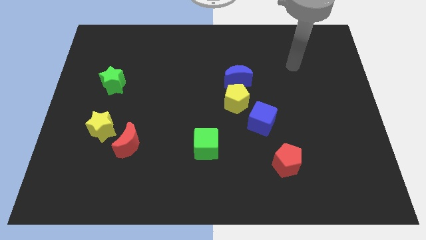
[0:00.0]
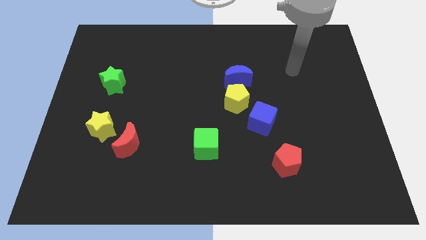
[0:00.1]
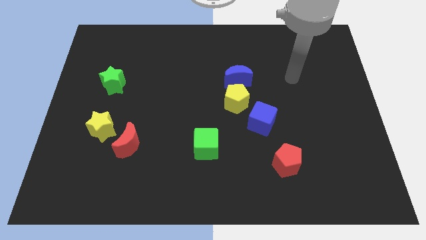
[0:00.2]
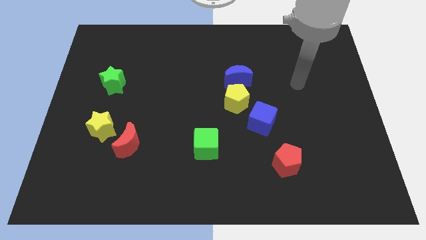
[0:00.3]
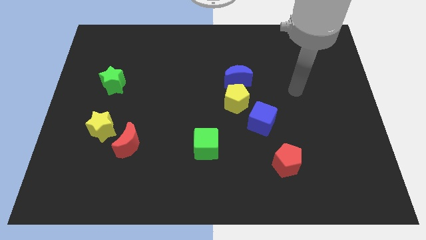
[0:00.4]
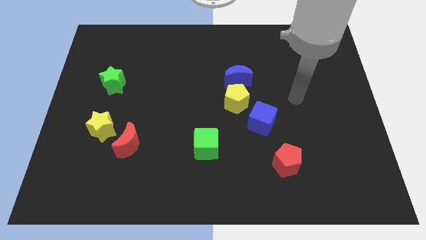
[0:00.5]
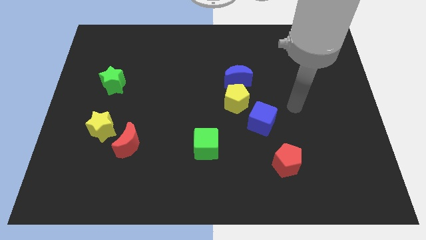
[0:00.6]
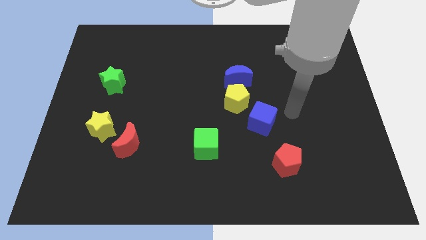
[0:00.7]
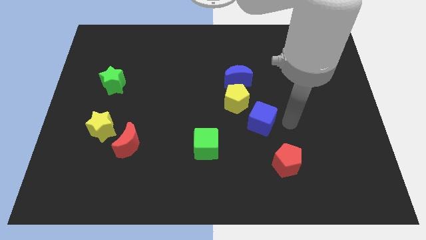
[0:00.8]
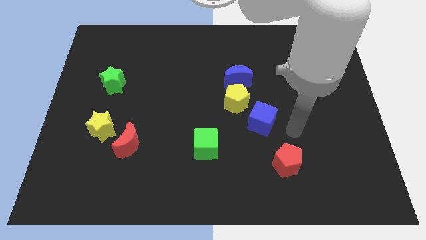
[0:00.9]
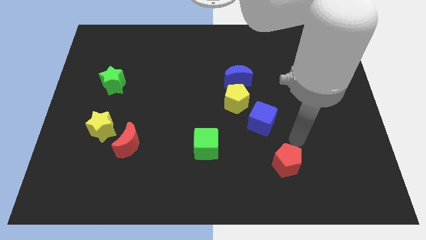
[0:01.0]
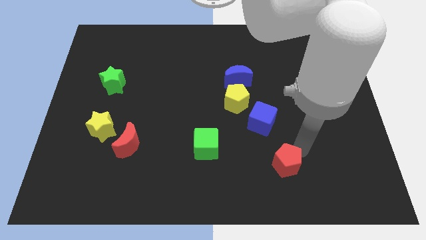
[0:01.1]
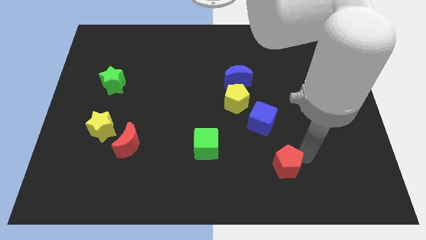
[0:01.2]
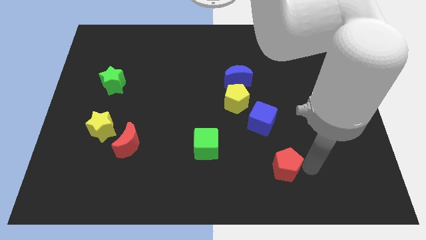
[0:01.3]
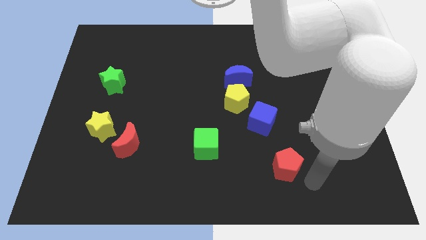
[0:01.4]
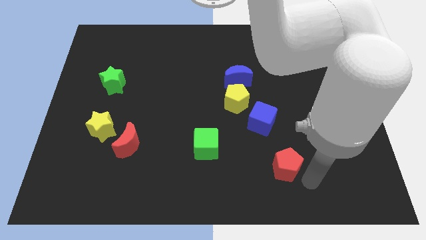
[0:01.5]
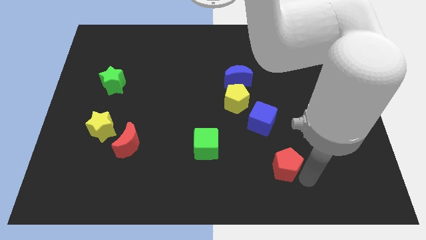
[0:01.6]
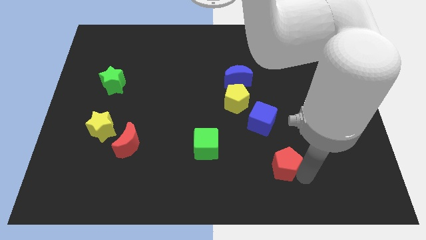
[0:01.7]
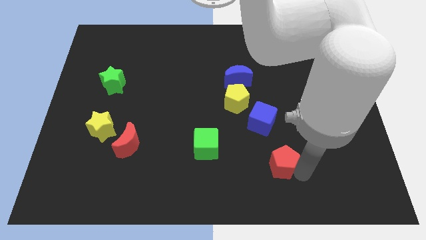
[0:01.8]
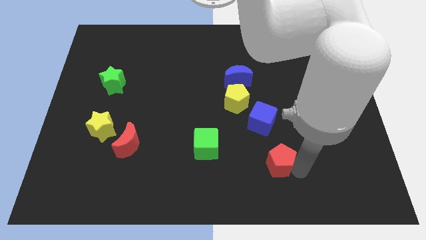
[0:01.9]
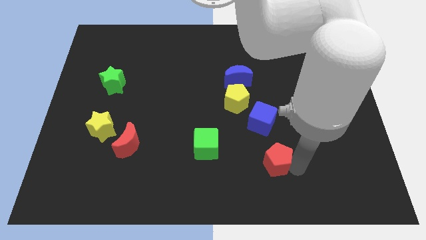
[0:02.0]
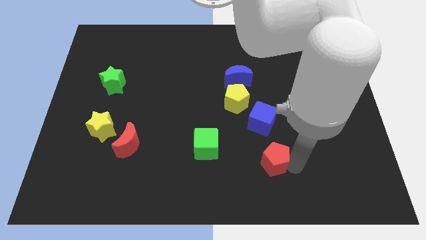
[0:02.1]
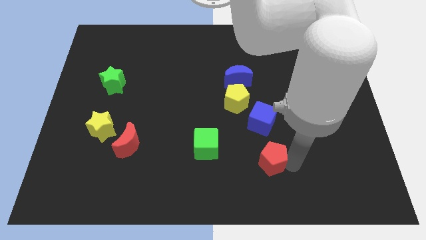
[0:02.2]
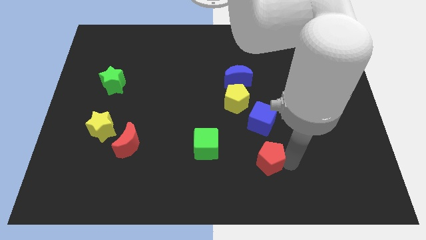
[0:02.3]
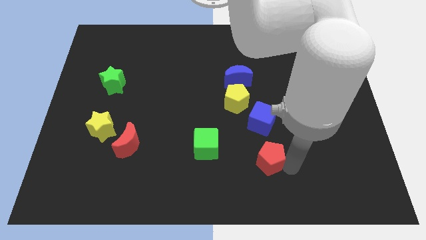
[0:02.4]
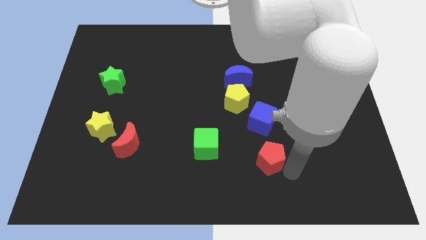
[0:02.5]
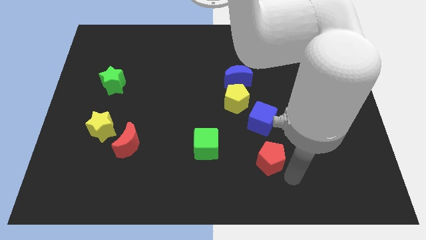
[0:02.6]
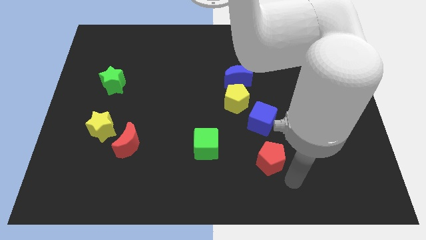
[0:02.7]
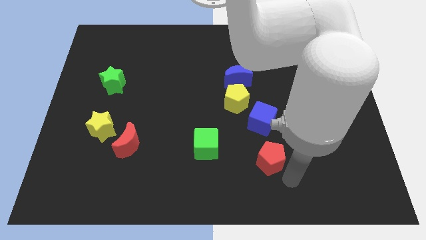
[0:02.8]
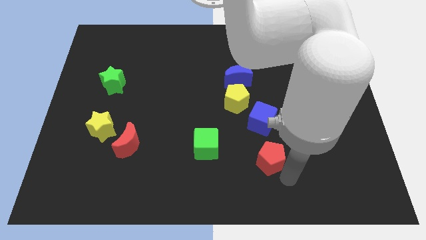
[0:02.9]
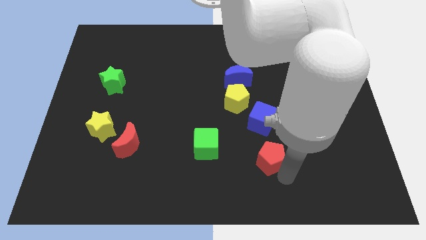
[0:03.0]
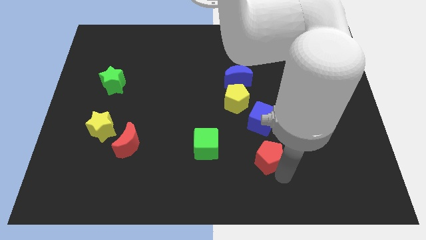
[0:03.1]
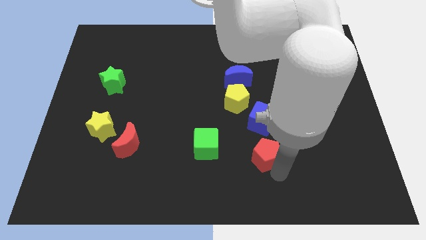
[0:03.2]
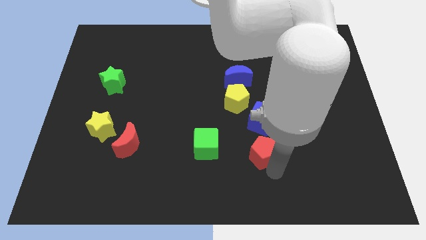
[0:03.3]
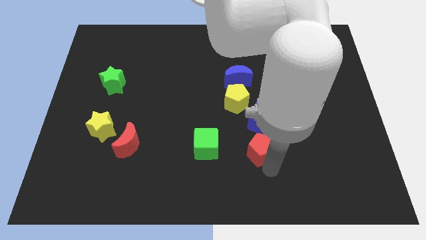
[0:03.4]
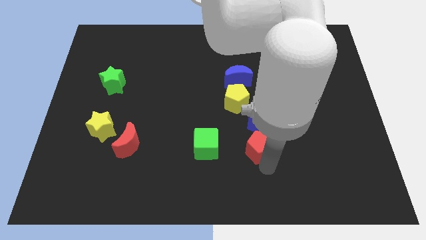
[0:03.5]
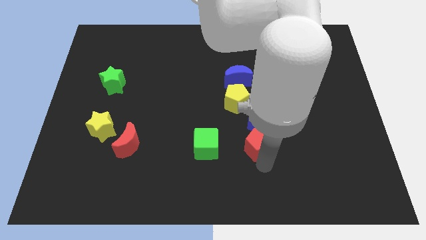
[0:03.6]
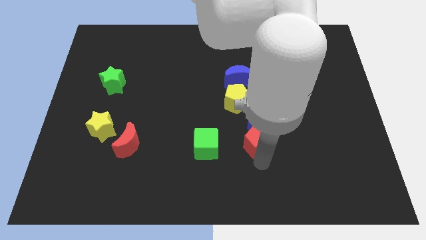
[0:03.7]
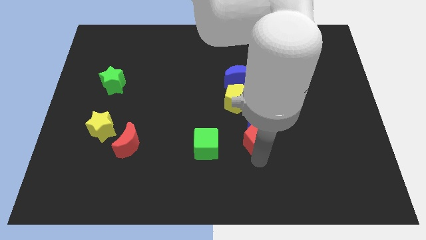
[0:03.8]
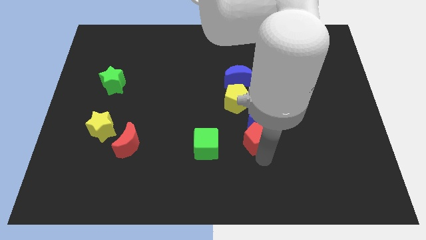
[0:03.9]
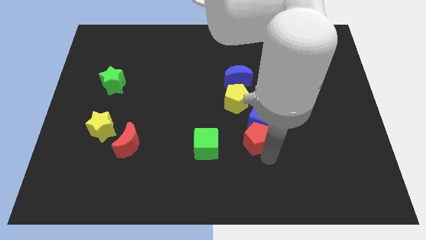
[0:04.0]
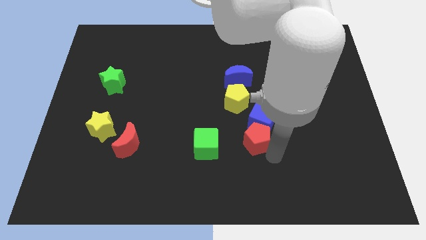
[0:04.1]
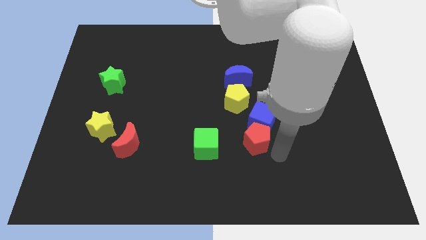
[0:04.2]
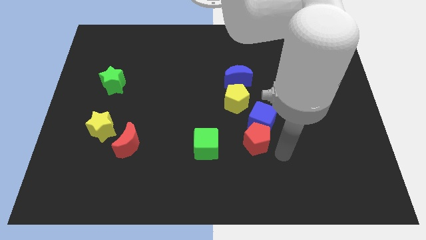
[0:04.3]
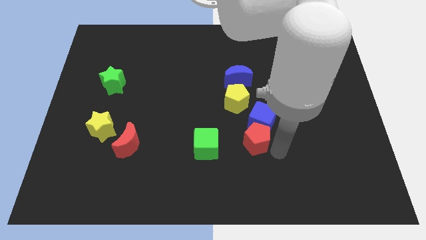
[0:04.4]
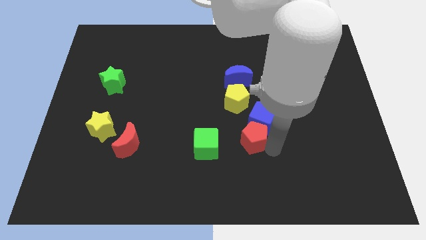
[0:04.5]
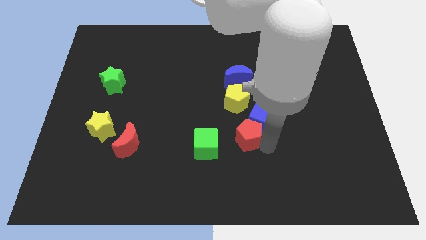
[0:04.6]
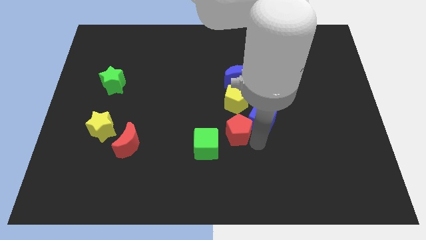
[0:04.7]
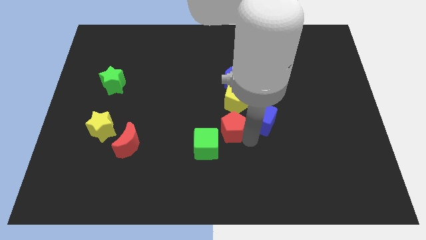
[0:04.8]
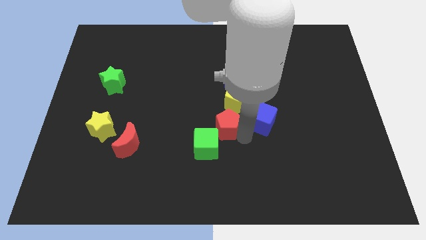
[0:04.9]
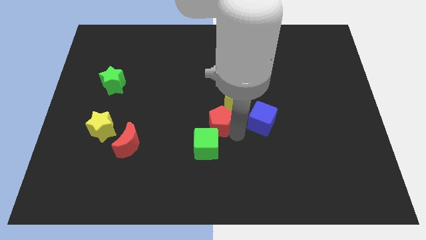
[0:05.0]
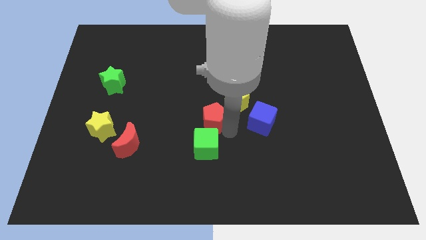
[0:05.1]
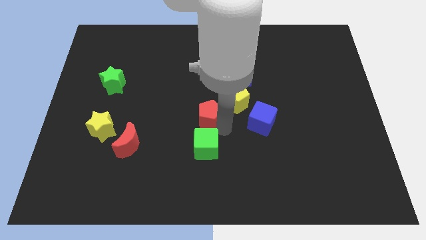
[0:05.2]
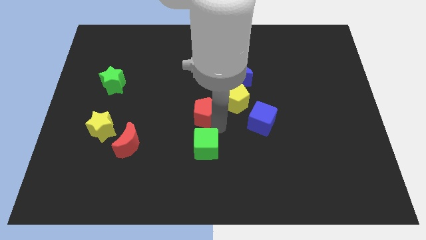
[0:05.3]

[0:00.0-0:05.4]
move the red pentagon diagonally up and left

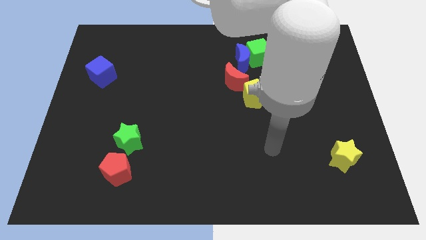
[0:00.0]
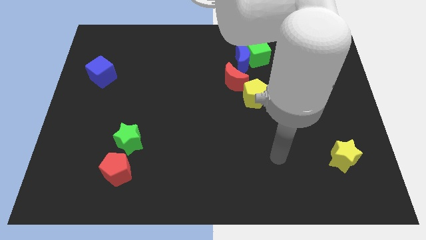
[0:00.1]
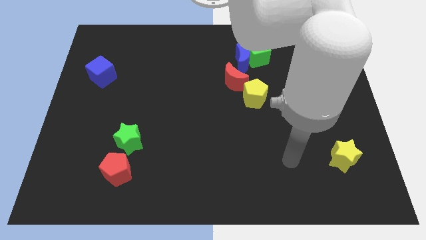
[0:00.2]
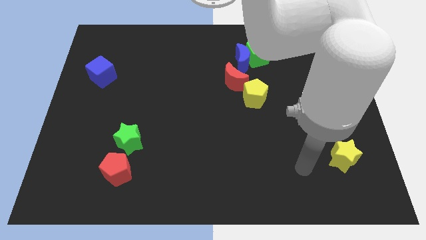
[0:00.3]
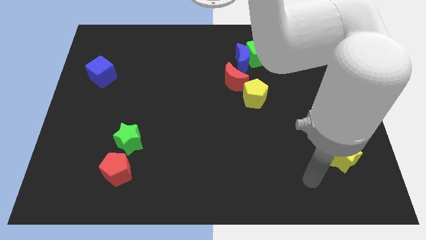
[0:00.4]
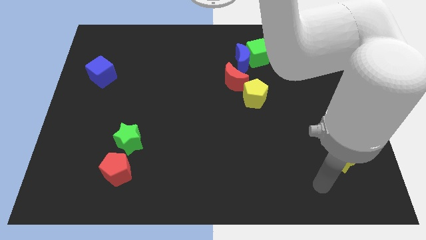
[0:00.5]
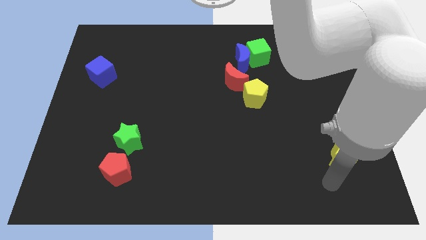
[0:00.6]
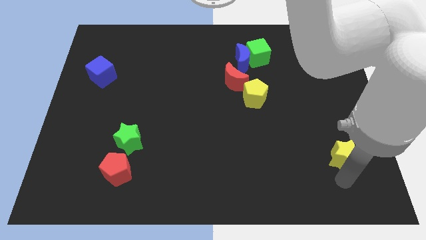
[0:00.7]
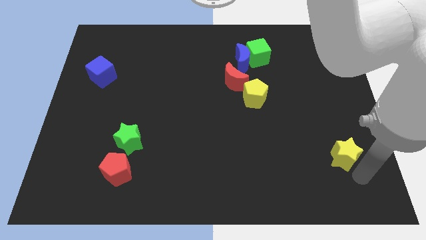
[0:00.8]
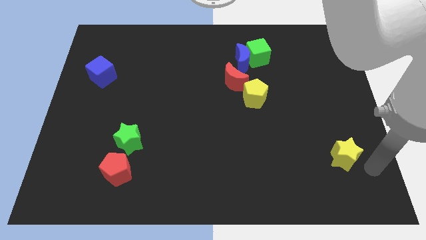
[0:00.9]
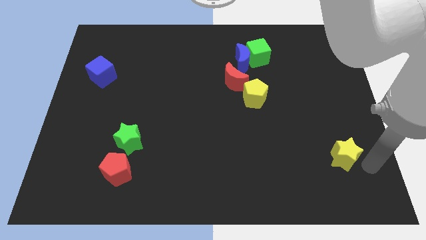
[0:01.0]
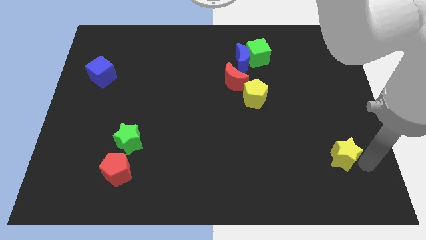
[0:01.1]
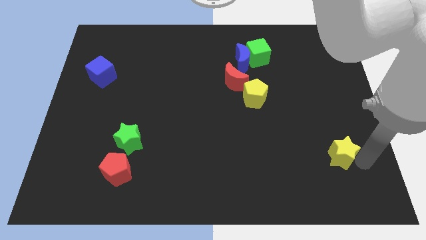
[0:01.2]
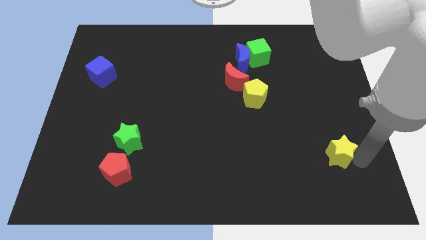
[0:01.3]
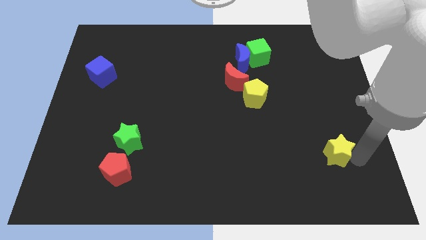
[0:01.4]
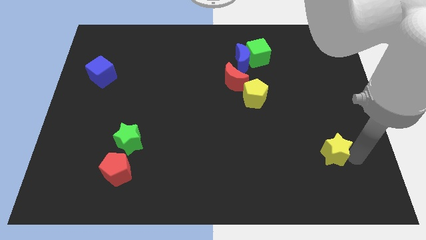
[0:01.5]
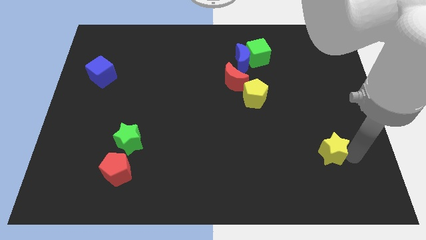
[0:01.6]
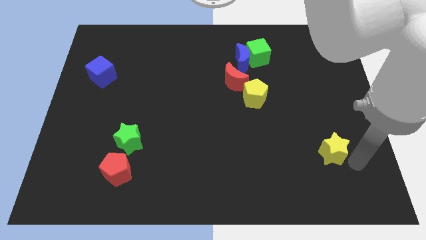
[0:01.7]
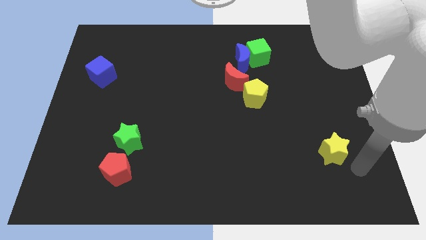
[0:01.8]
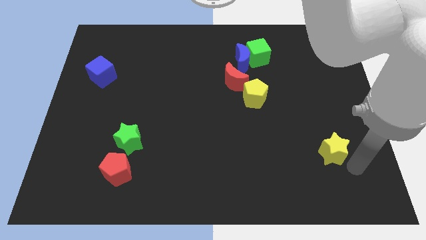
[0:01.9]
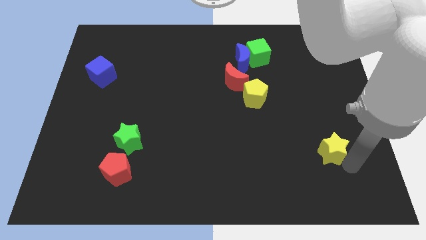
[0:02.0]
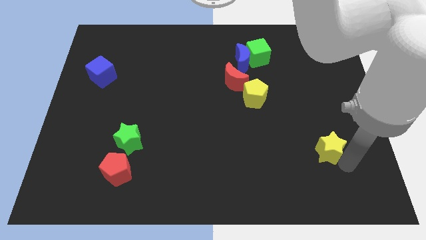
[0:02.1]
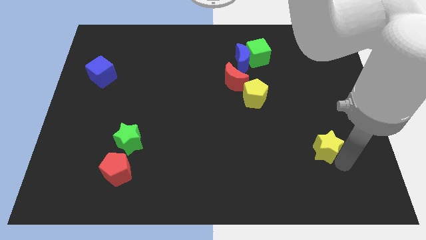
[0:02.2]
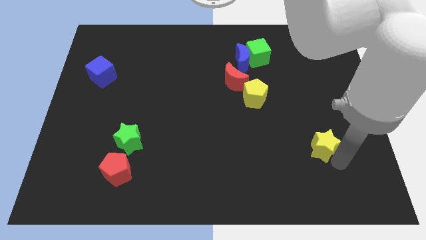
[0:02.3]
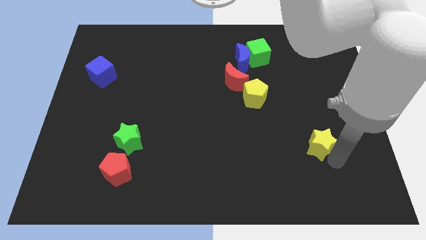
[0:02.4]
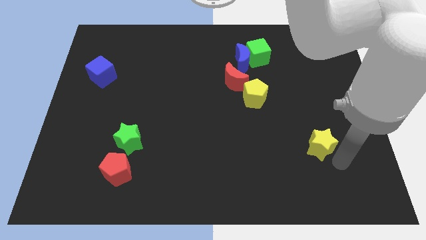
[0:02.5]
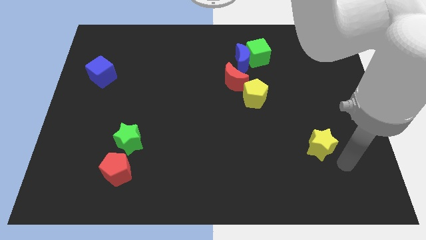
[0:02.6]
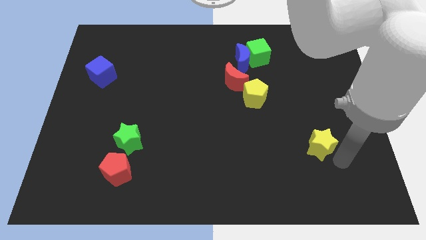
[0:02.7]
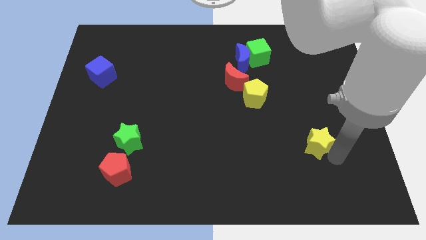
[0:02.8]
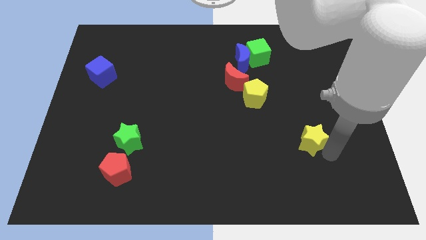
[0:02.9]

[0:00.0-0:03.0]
slightly push the yellow star diagonally upwards and to the left
